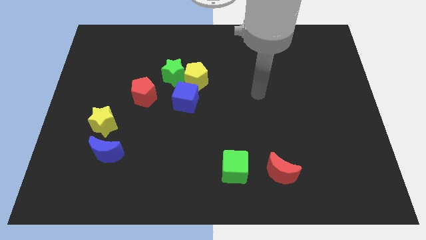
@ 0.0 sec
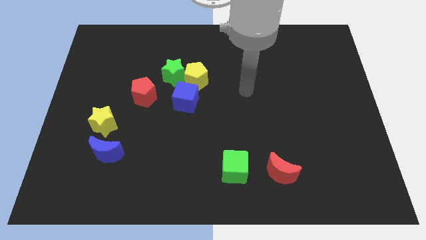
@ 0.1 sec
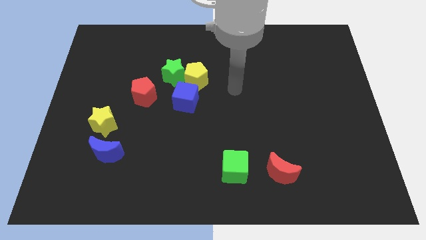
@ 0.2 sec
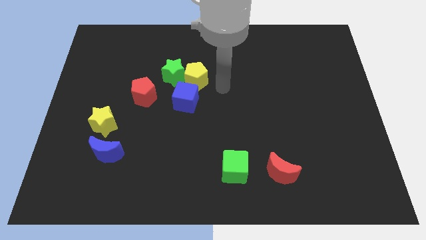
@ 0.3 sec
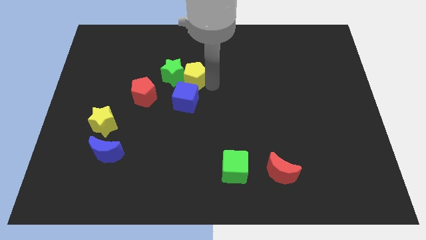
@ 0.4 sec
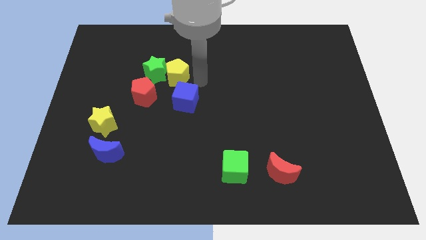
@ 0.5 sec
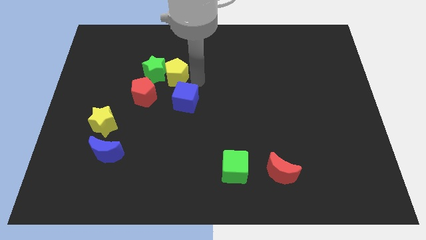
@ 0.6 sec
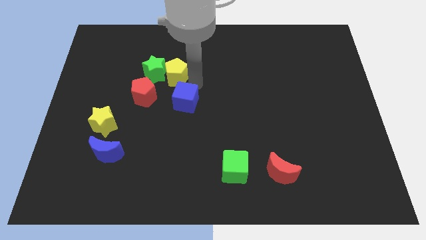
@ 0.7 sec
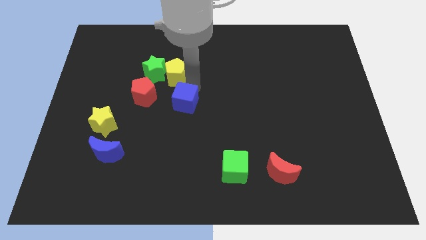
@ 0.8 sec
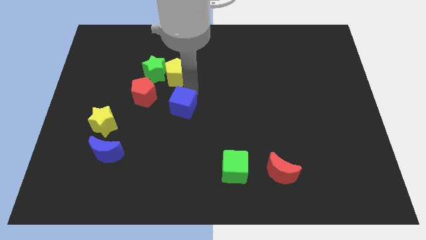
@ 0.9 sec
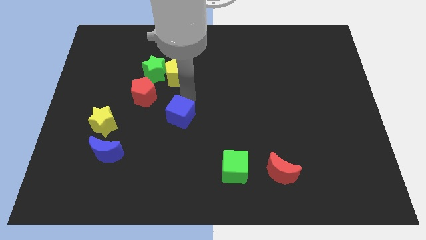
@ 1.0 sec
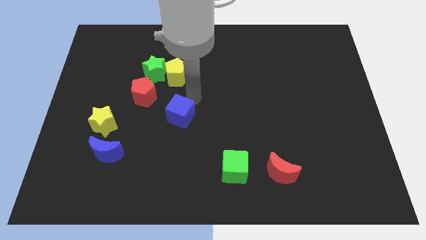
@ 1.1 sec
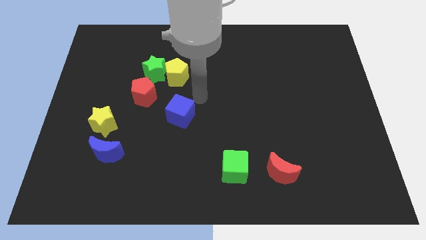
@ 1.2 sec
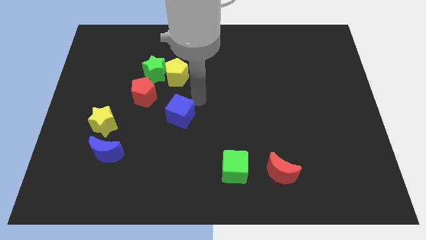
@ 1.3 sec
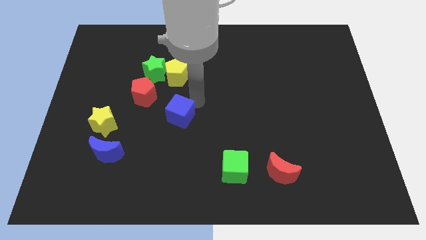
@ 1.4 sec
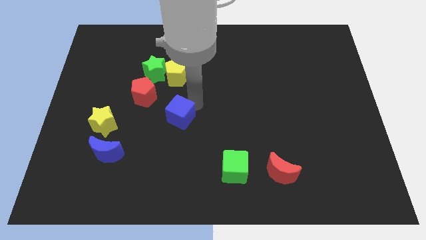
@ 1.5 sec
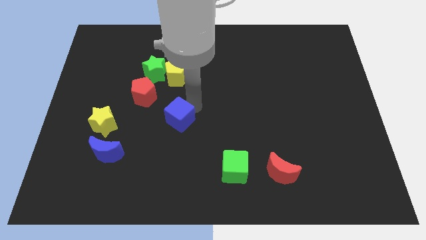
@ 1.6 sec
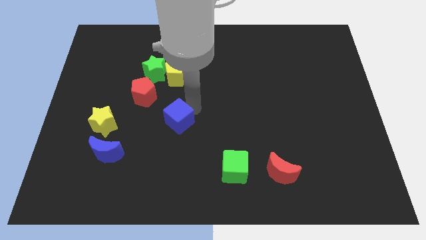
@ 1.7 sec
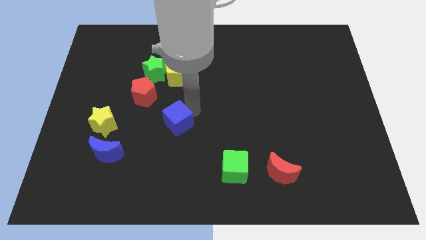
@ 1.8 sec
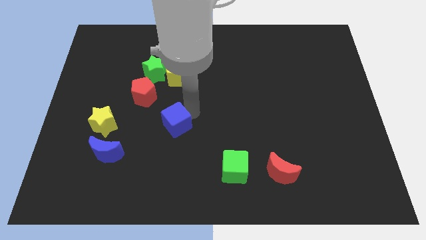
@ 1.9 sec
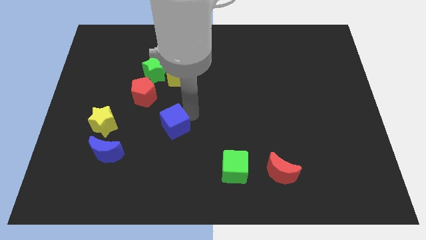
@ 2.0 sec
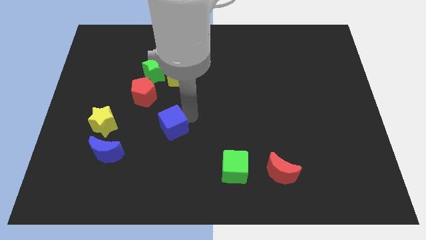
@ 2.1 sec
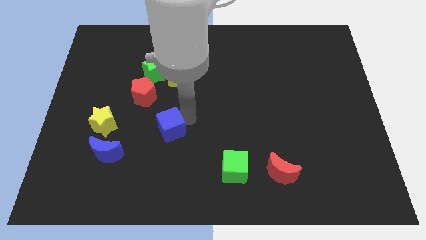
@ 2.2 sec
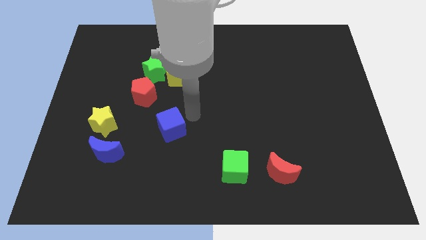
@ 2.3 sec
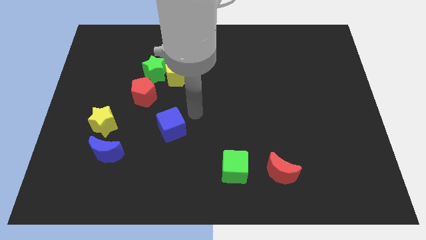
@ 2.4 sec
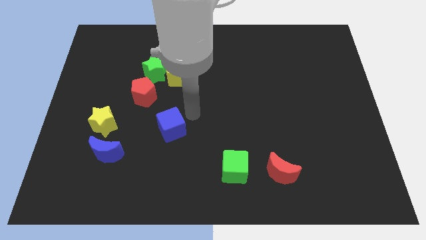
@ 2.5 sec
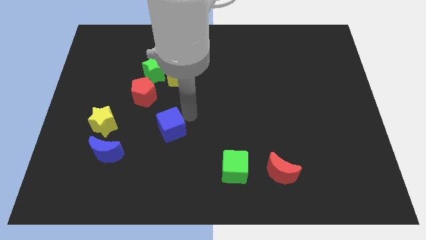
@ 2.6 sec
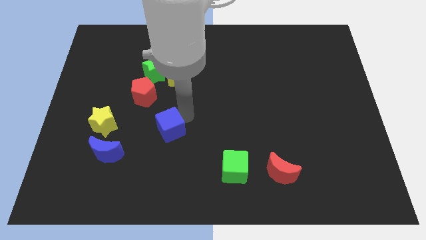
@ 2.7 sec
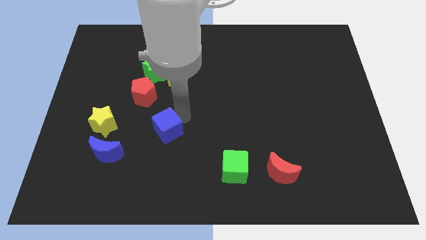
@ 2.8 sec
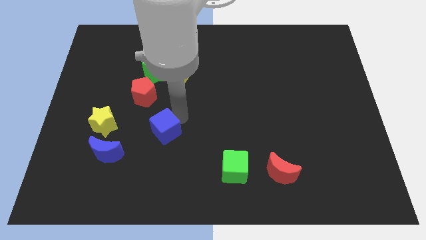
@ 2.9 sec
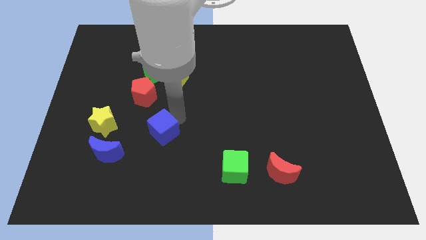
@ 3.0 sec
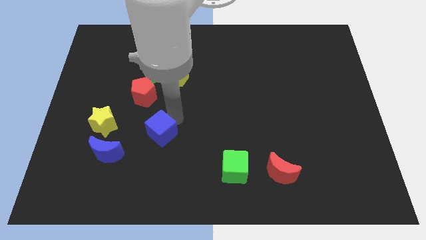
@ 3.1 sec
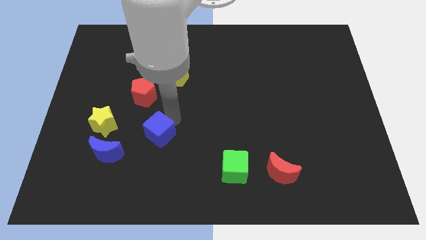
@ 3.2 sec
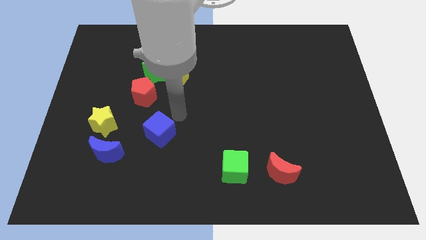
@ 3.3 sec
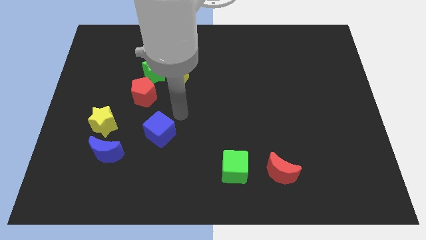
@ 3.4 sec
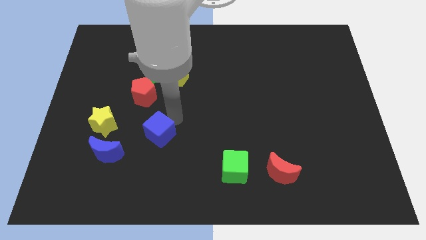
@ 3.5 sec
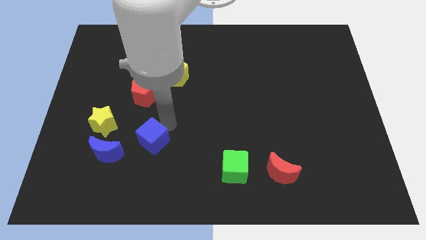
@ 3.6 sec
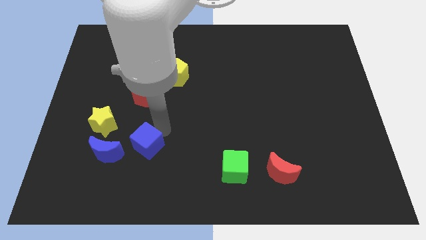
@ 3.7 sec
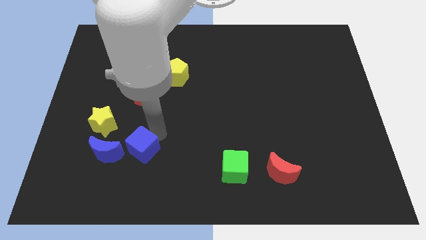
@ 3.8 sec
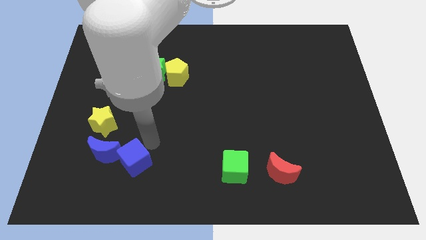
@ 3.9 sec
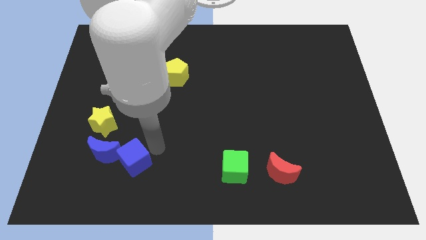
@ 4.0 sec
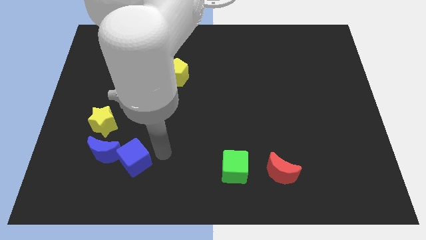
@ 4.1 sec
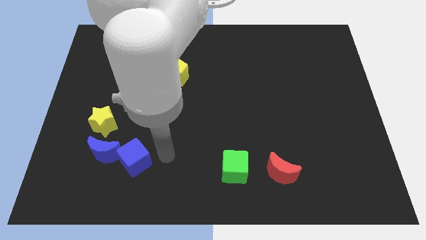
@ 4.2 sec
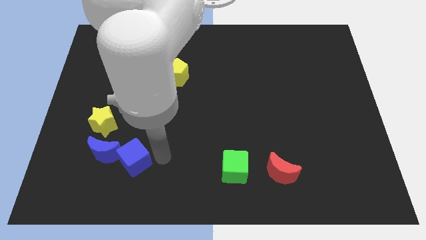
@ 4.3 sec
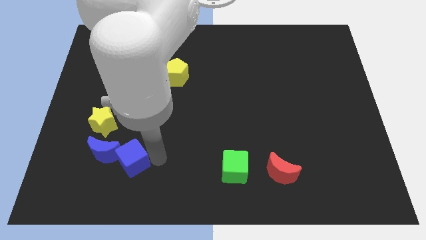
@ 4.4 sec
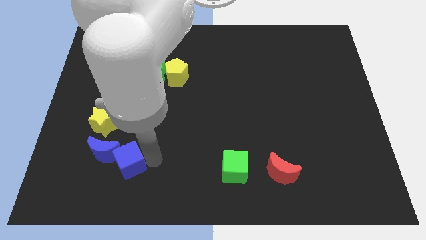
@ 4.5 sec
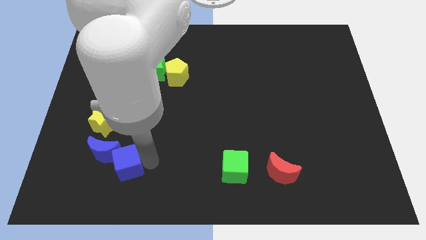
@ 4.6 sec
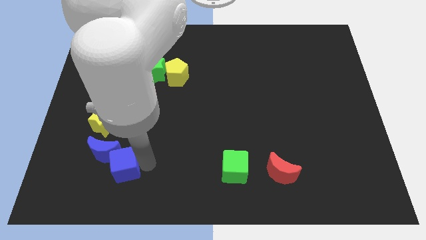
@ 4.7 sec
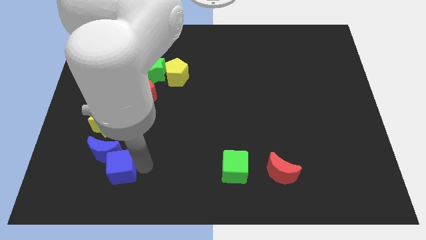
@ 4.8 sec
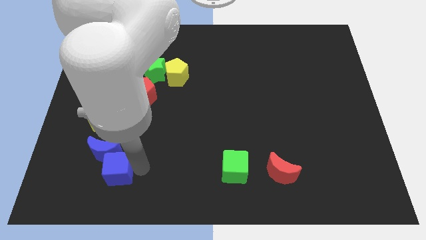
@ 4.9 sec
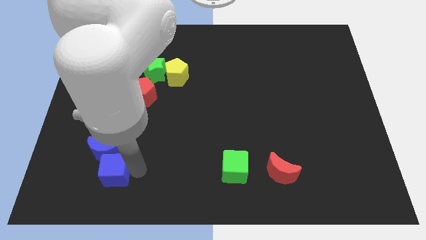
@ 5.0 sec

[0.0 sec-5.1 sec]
push the blue cube to the bottom of the yellow star

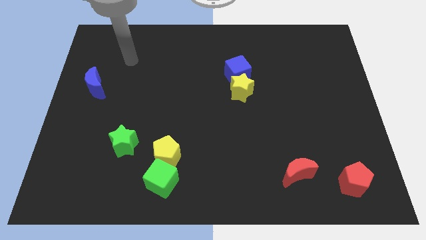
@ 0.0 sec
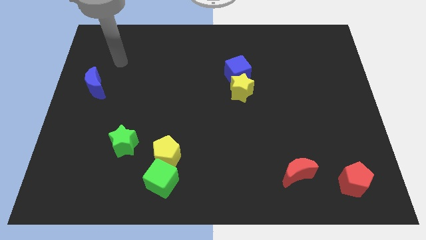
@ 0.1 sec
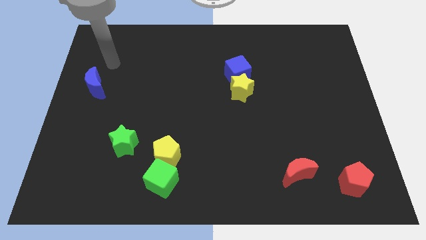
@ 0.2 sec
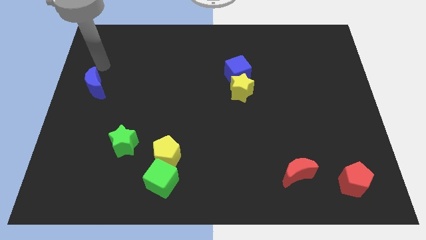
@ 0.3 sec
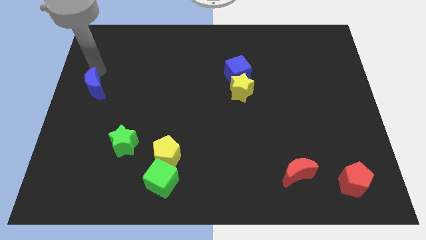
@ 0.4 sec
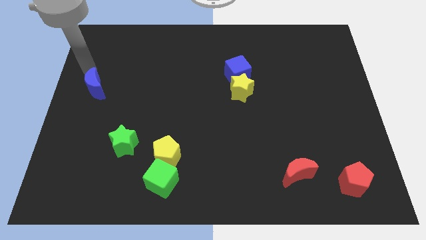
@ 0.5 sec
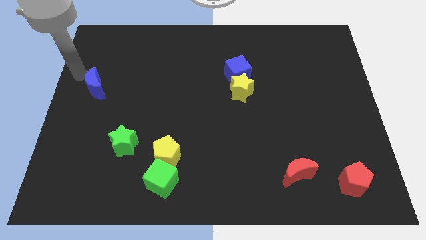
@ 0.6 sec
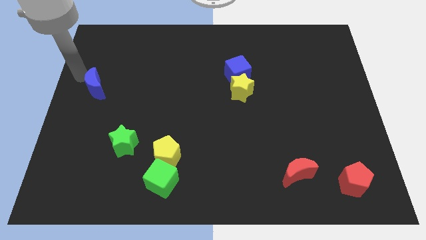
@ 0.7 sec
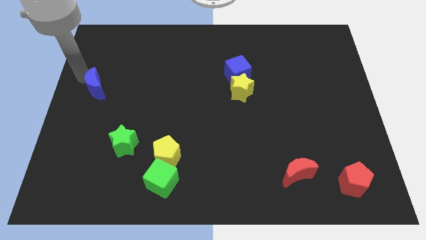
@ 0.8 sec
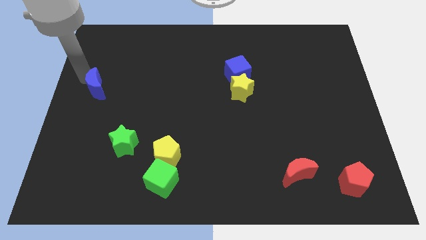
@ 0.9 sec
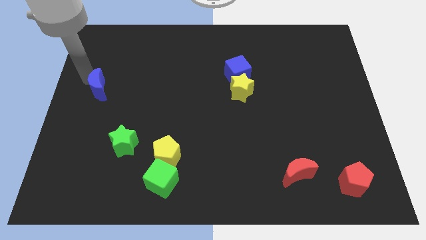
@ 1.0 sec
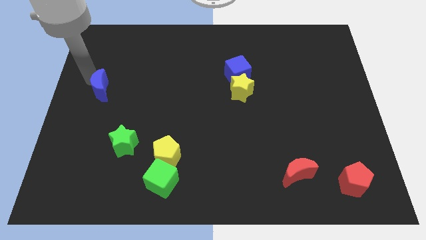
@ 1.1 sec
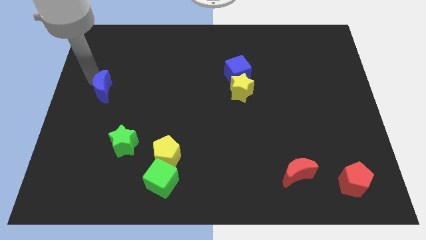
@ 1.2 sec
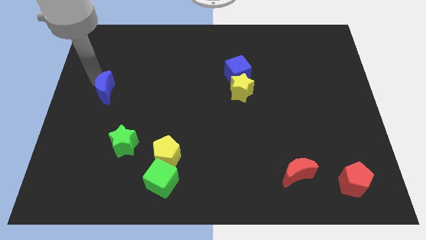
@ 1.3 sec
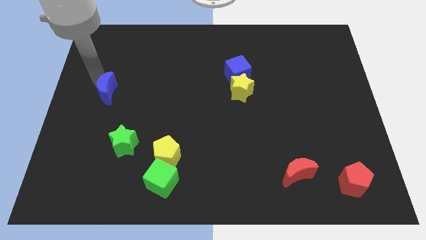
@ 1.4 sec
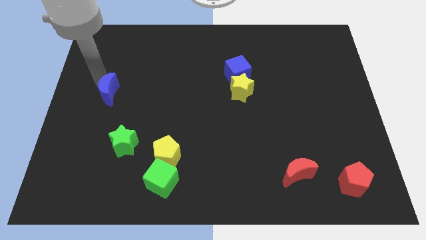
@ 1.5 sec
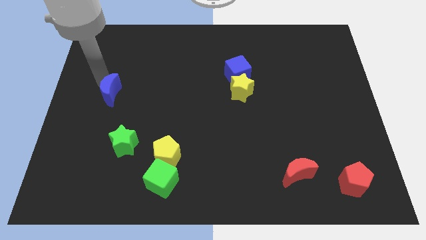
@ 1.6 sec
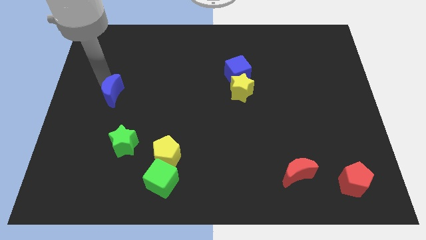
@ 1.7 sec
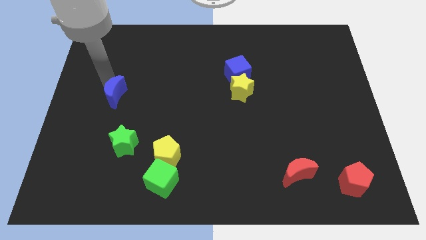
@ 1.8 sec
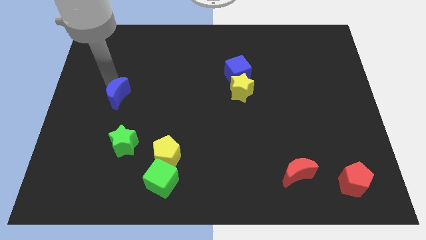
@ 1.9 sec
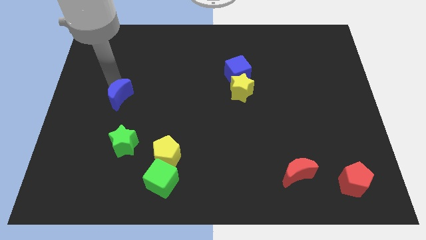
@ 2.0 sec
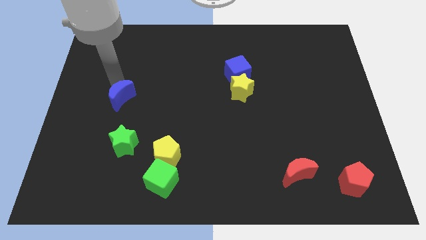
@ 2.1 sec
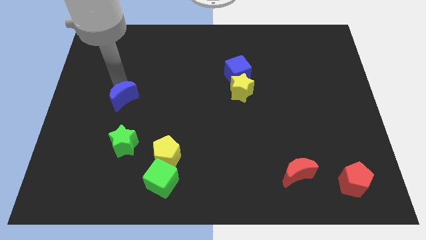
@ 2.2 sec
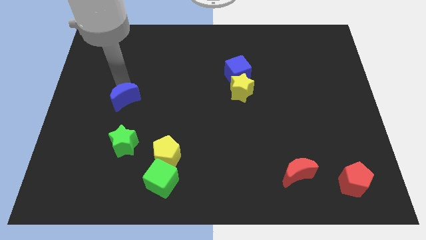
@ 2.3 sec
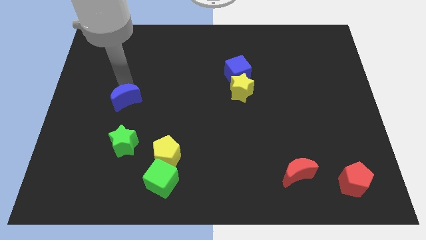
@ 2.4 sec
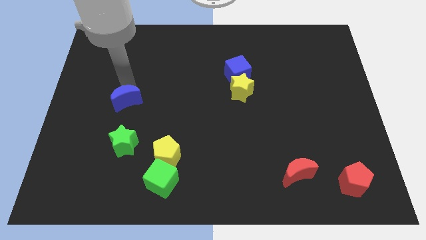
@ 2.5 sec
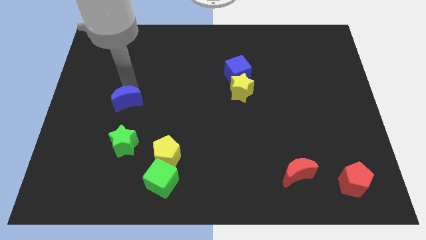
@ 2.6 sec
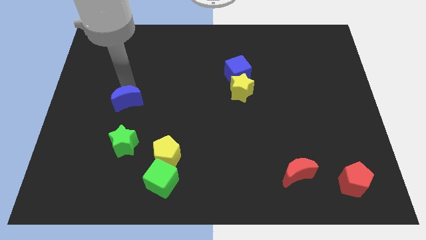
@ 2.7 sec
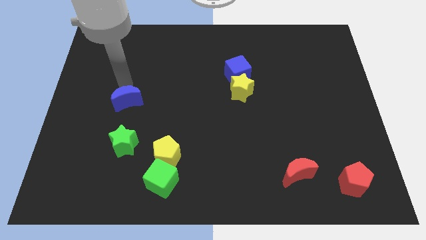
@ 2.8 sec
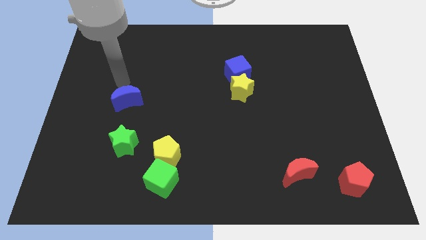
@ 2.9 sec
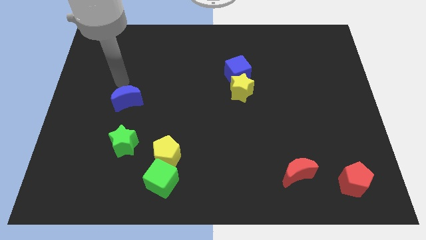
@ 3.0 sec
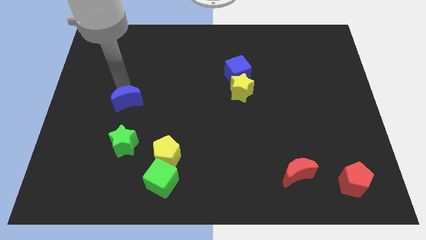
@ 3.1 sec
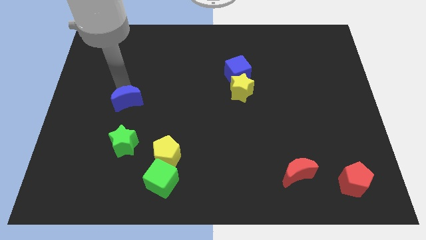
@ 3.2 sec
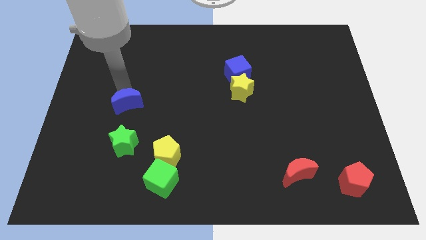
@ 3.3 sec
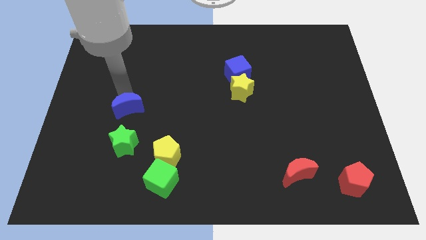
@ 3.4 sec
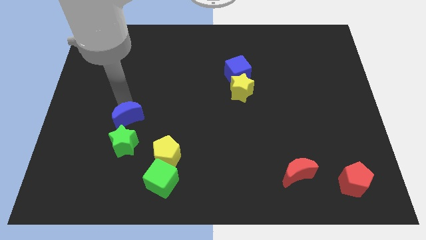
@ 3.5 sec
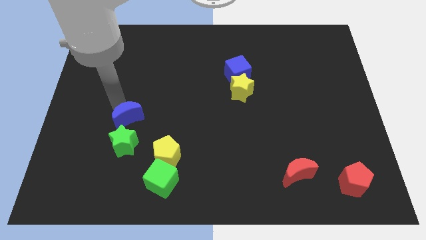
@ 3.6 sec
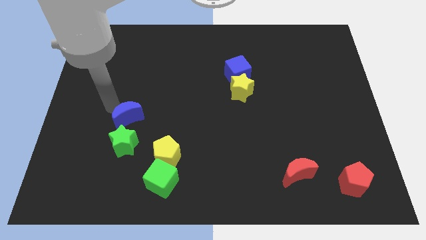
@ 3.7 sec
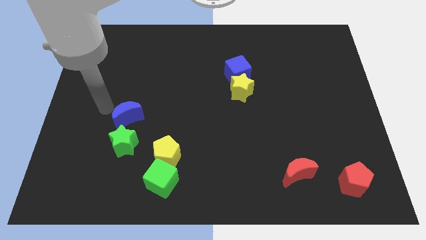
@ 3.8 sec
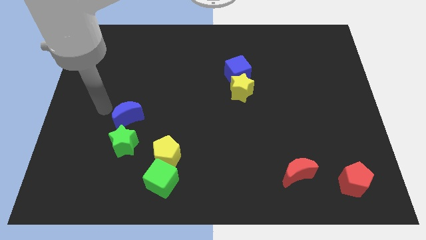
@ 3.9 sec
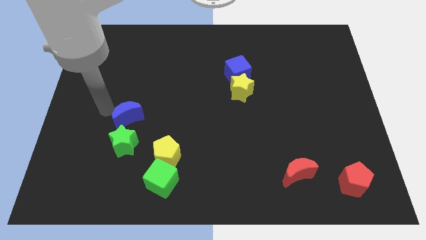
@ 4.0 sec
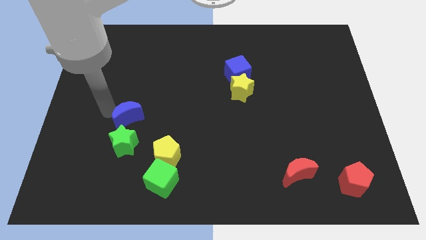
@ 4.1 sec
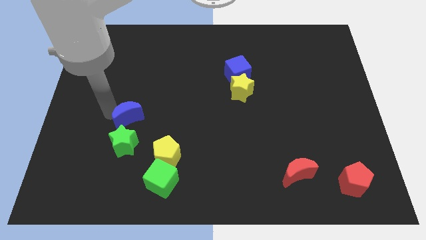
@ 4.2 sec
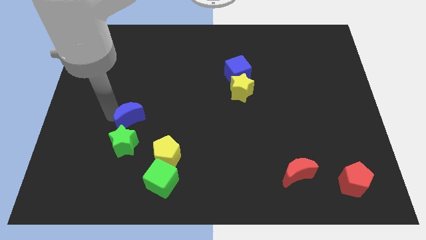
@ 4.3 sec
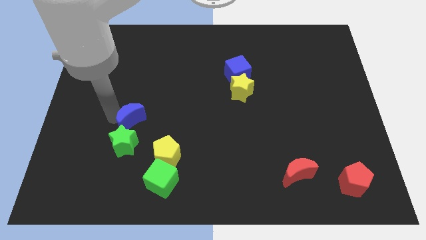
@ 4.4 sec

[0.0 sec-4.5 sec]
push the blue moon diagonally up and to the right of the green star
